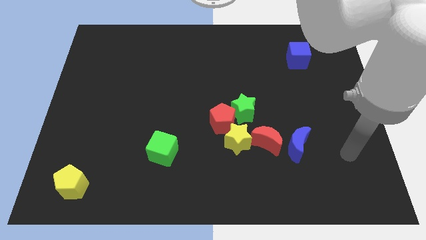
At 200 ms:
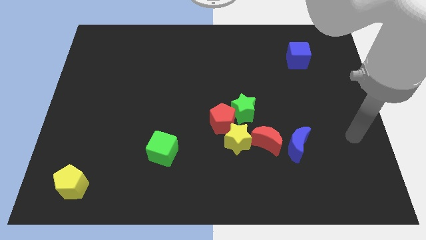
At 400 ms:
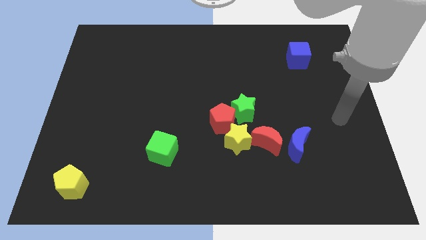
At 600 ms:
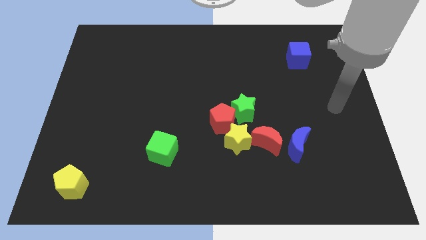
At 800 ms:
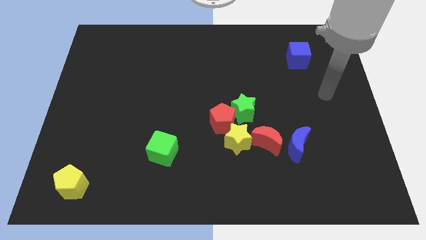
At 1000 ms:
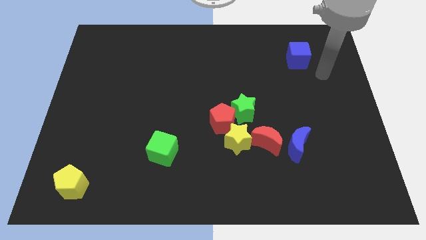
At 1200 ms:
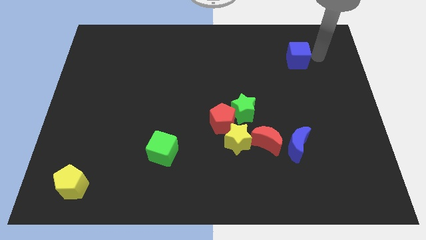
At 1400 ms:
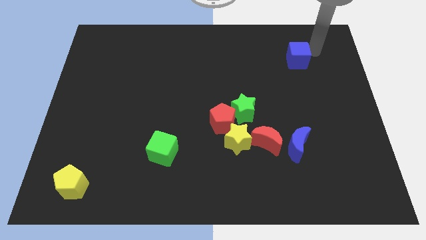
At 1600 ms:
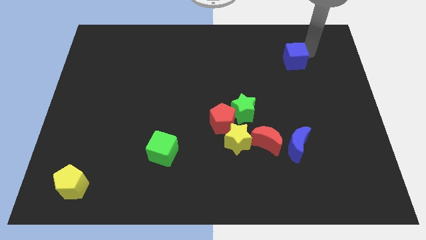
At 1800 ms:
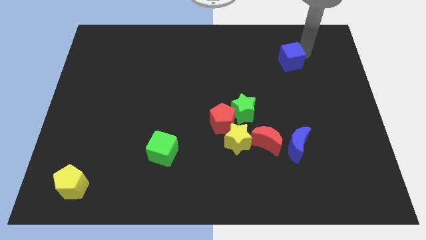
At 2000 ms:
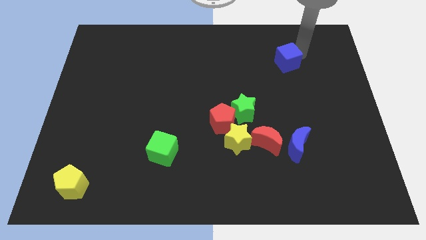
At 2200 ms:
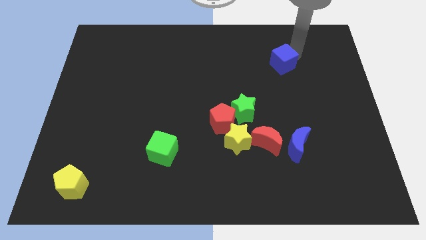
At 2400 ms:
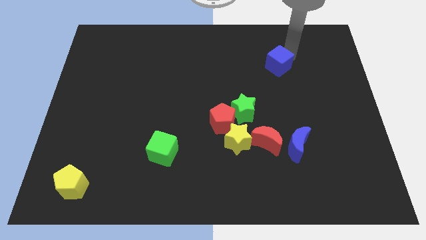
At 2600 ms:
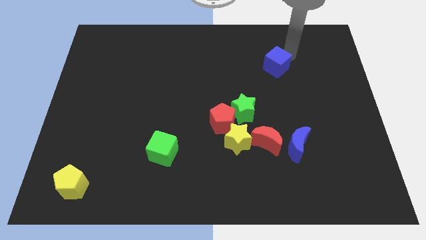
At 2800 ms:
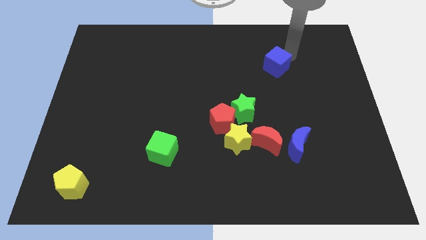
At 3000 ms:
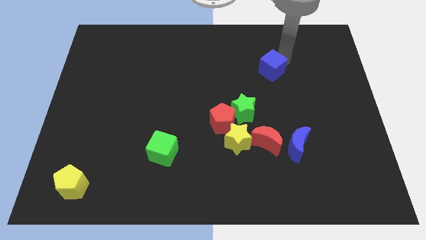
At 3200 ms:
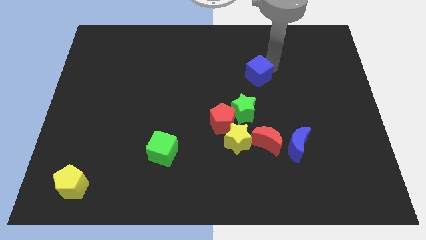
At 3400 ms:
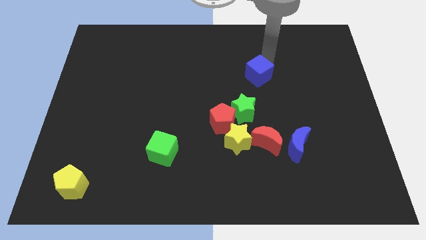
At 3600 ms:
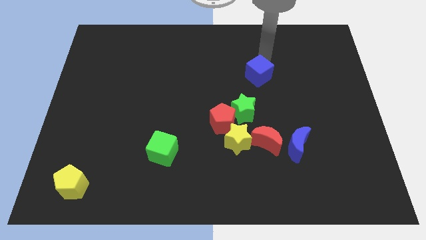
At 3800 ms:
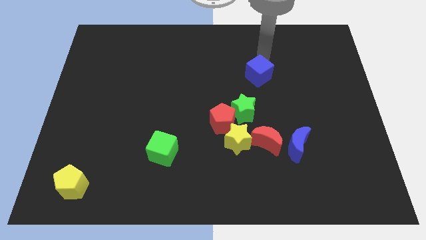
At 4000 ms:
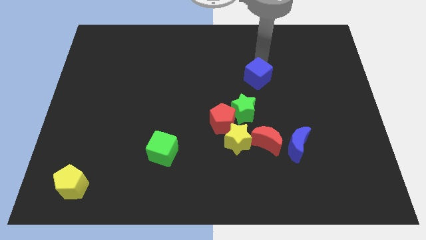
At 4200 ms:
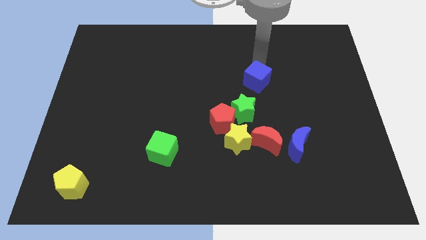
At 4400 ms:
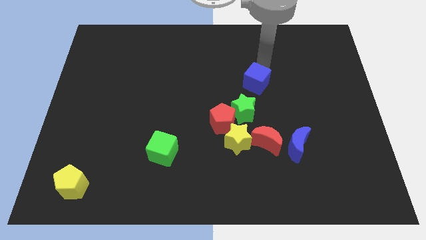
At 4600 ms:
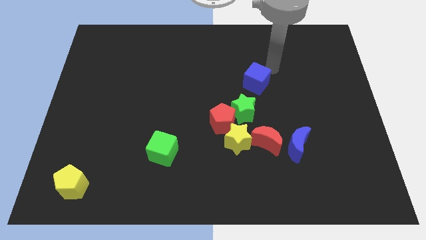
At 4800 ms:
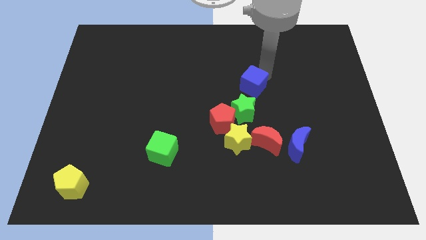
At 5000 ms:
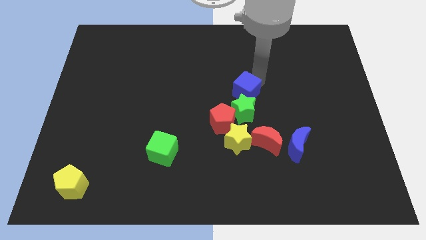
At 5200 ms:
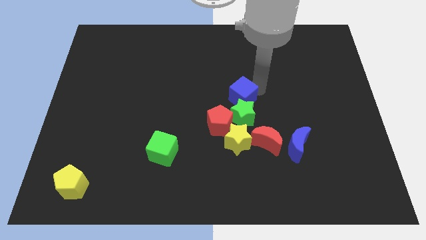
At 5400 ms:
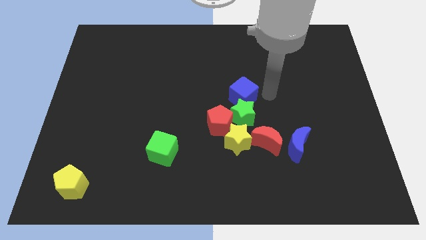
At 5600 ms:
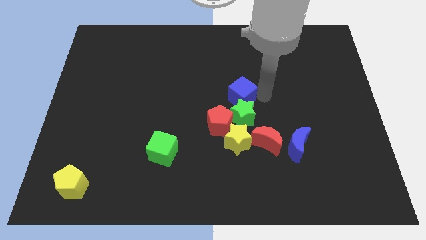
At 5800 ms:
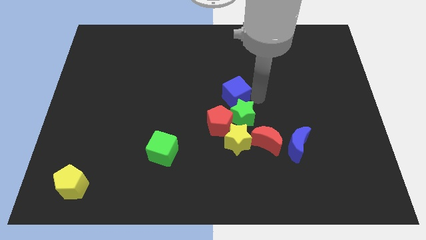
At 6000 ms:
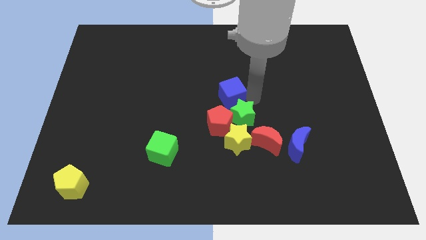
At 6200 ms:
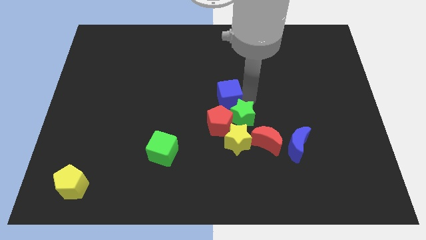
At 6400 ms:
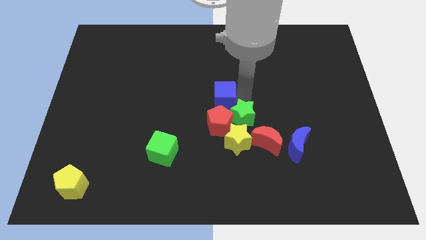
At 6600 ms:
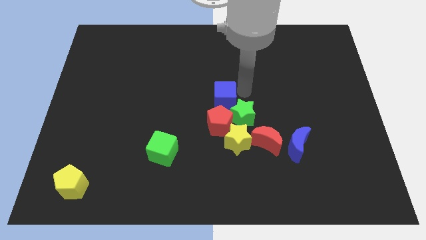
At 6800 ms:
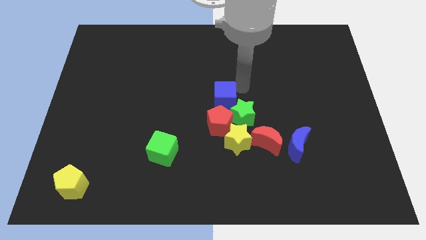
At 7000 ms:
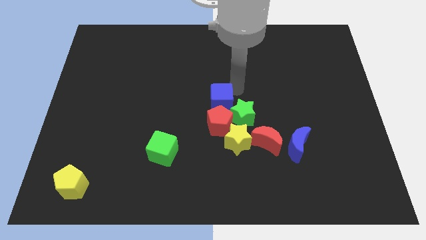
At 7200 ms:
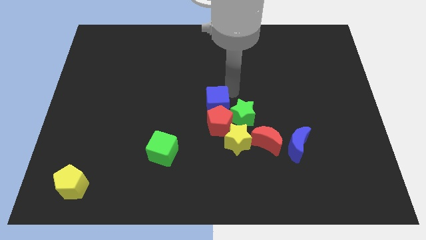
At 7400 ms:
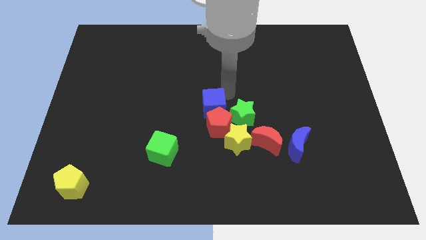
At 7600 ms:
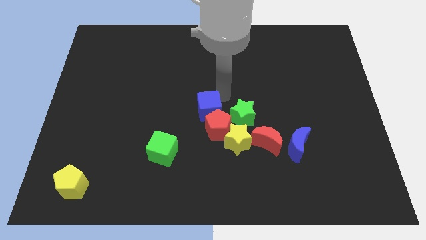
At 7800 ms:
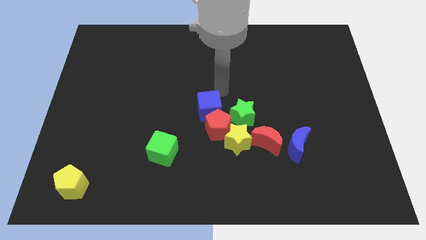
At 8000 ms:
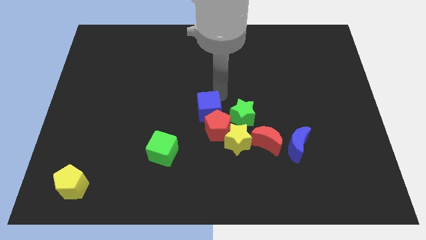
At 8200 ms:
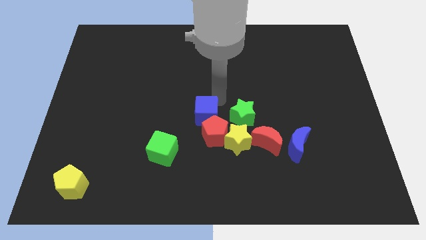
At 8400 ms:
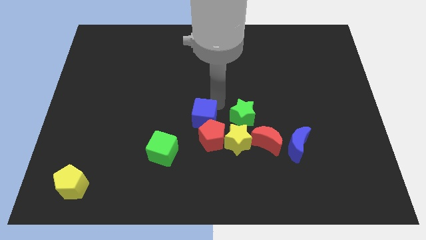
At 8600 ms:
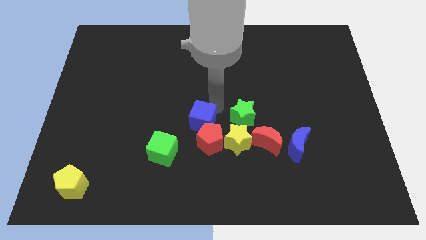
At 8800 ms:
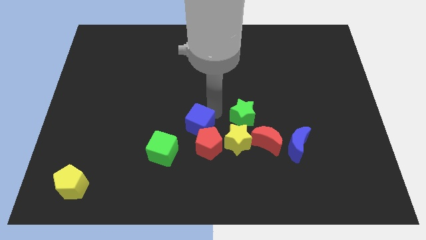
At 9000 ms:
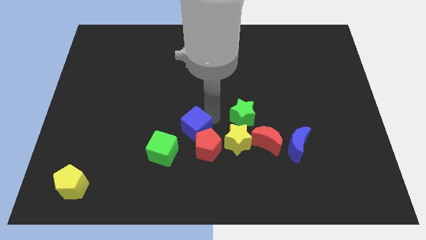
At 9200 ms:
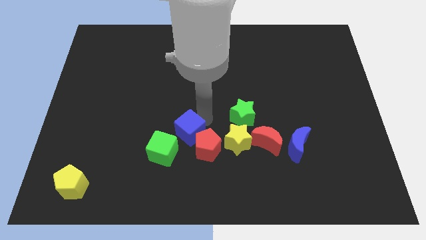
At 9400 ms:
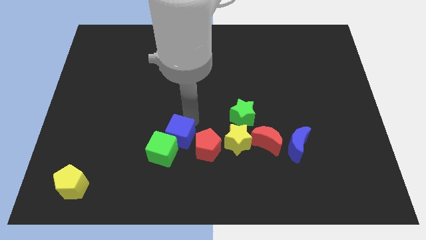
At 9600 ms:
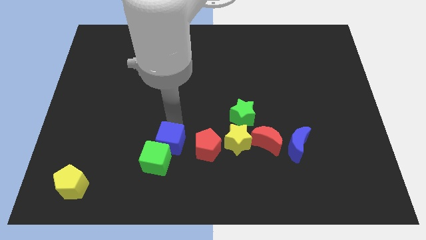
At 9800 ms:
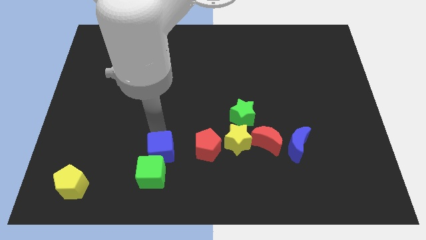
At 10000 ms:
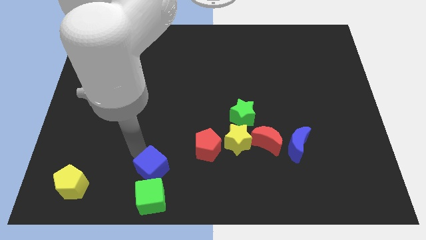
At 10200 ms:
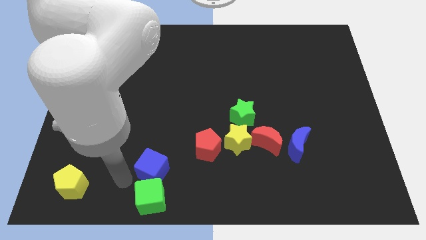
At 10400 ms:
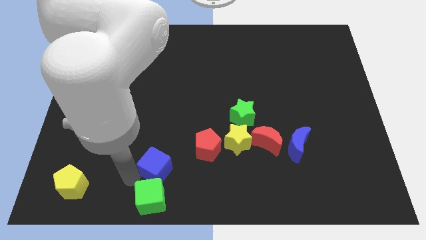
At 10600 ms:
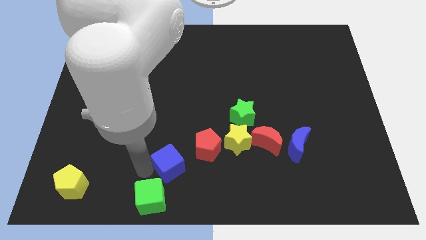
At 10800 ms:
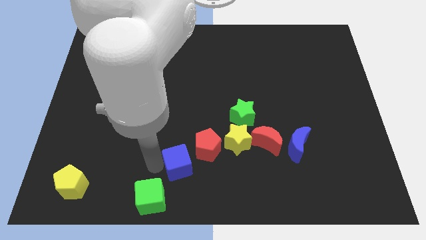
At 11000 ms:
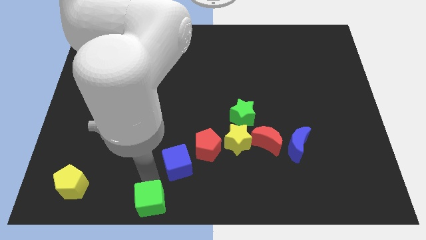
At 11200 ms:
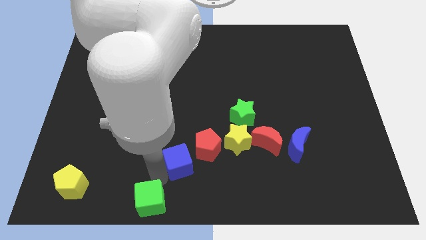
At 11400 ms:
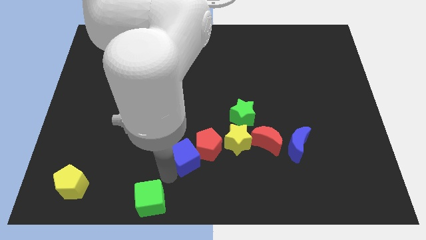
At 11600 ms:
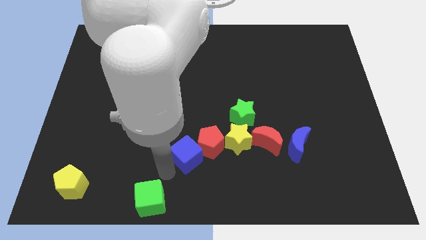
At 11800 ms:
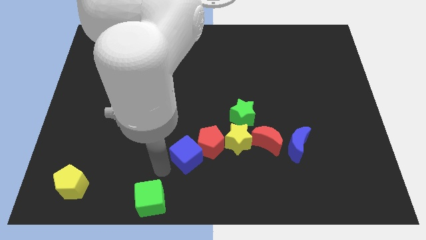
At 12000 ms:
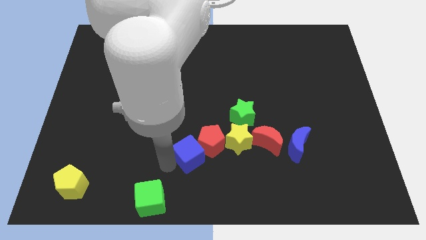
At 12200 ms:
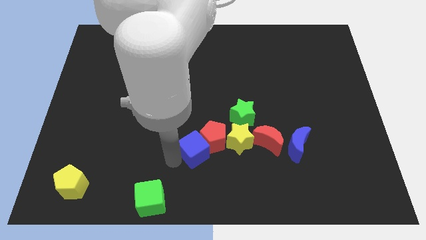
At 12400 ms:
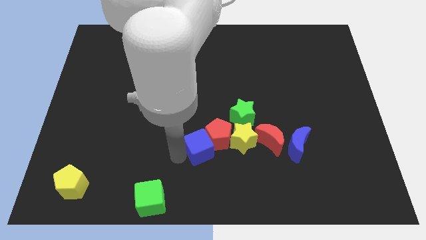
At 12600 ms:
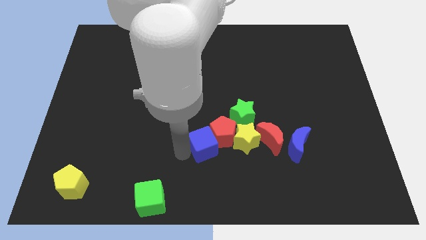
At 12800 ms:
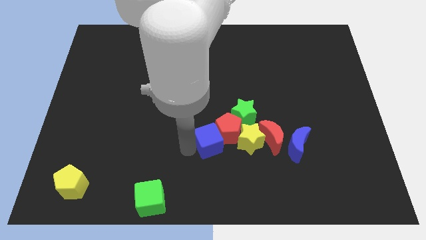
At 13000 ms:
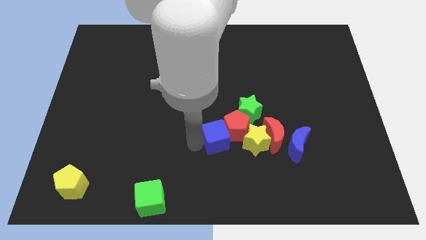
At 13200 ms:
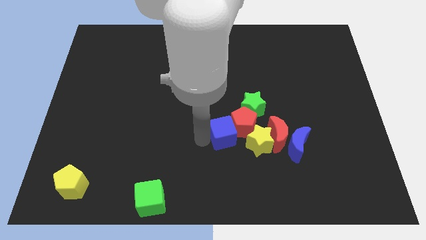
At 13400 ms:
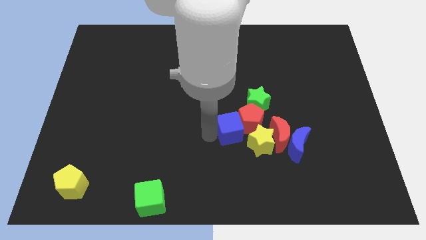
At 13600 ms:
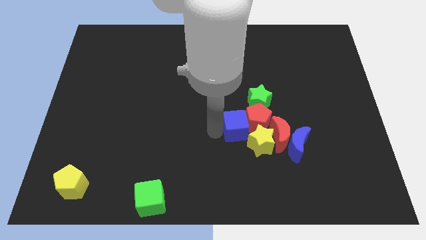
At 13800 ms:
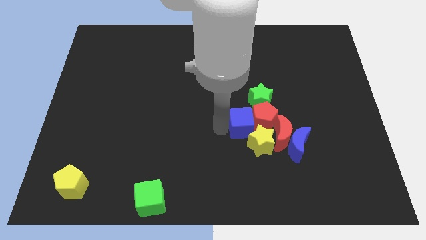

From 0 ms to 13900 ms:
put the blue cube next to the yellow star

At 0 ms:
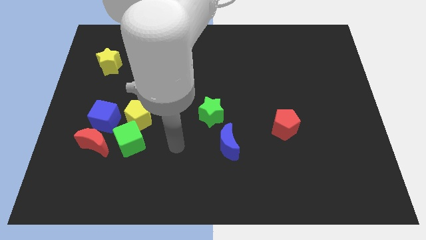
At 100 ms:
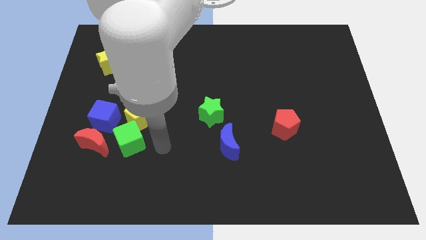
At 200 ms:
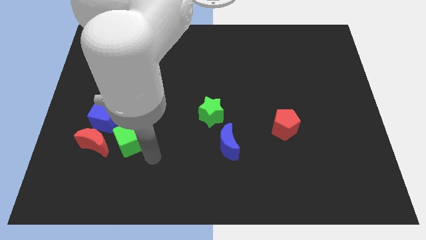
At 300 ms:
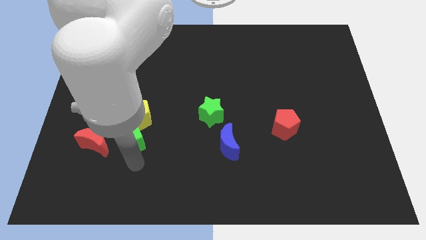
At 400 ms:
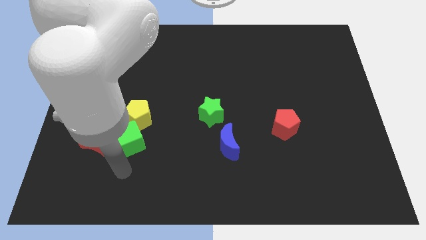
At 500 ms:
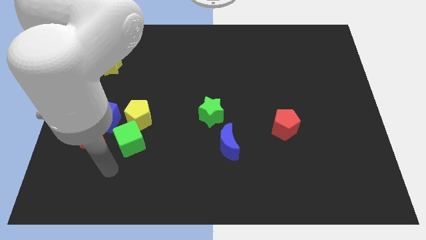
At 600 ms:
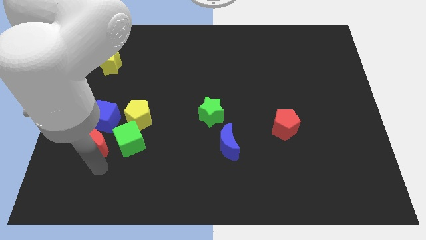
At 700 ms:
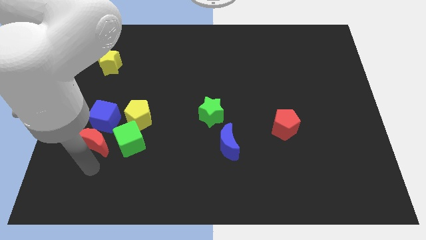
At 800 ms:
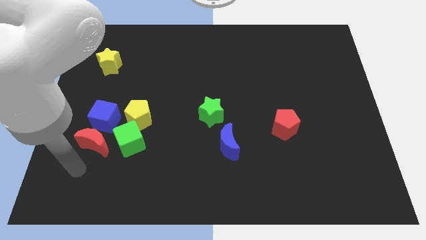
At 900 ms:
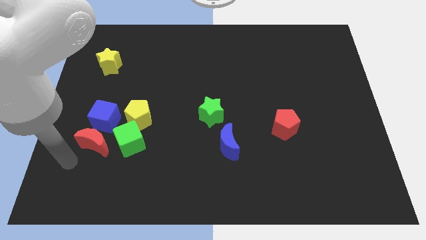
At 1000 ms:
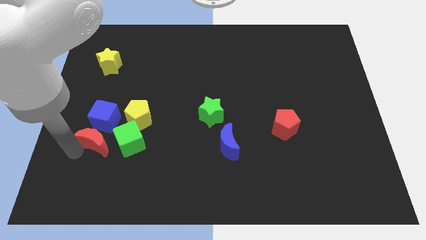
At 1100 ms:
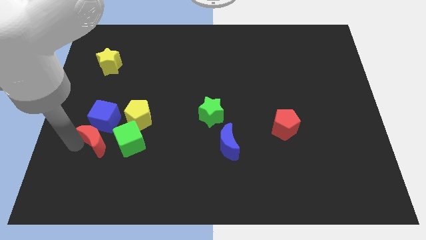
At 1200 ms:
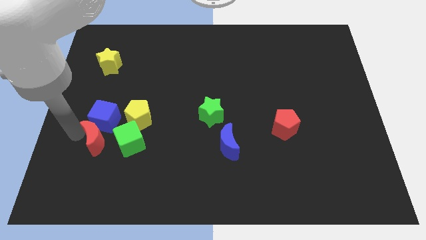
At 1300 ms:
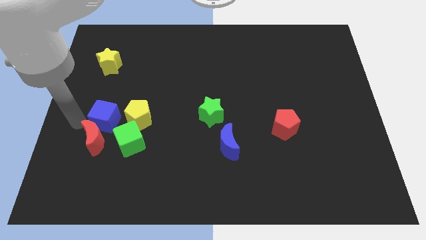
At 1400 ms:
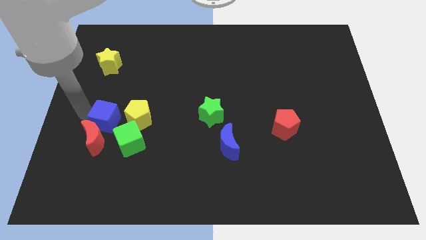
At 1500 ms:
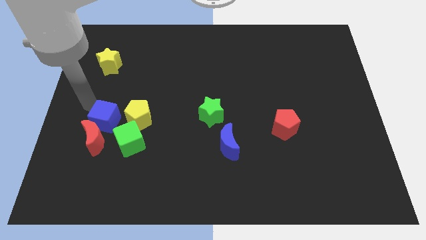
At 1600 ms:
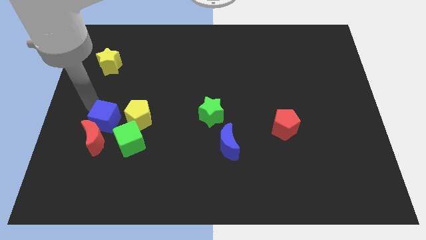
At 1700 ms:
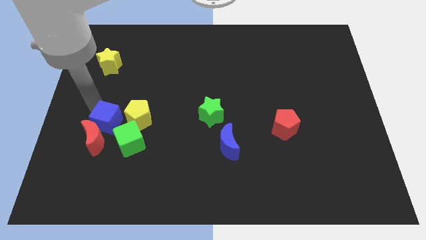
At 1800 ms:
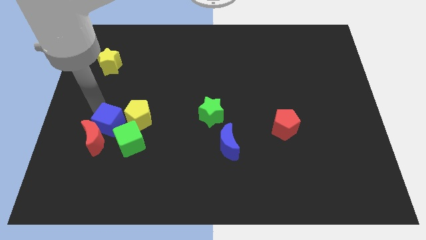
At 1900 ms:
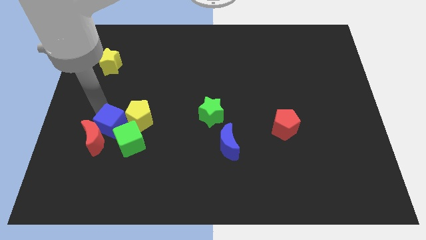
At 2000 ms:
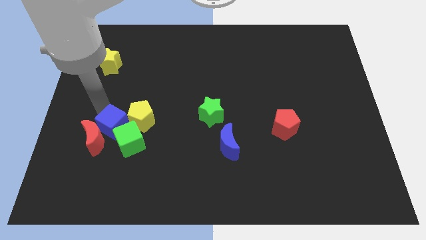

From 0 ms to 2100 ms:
move the blue cube to the green cube
